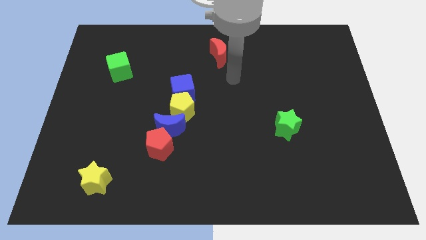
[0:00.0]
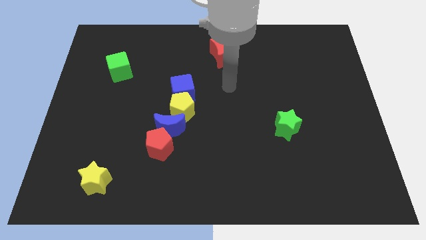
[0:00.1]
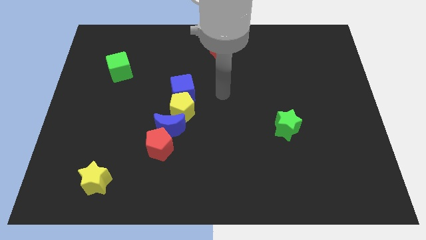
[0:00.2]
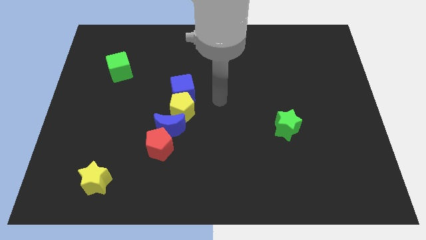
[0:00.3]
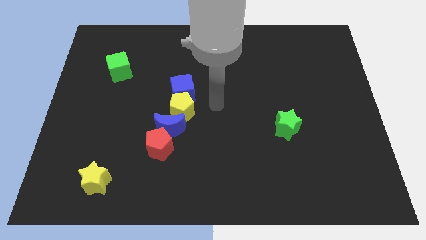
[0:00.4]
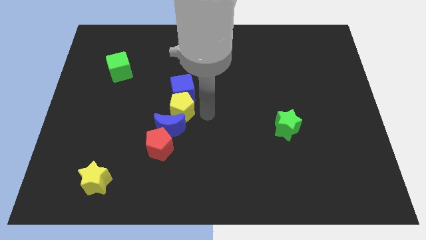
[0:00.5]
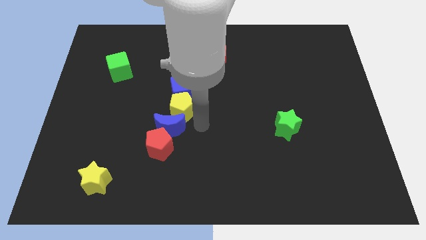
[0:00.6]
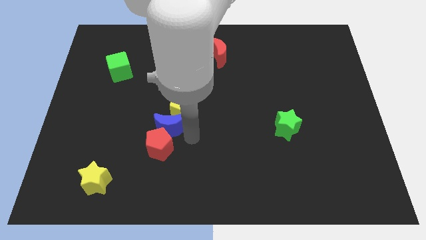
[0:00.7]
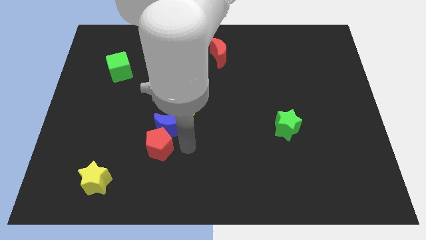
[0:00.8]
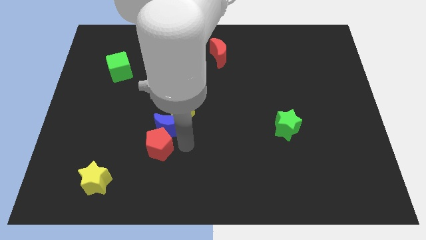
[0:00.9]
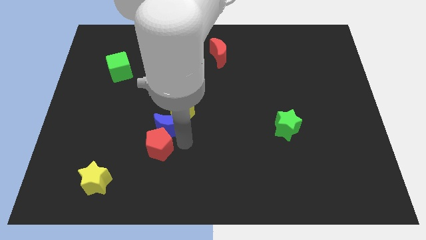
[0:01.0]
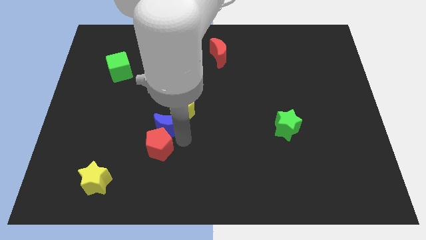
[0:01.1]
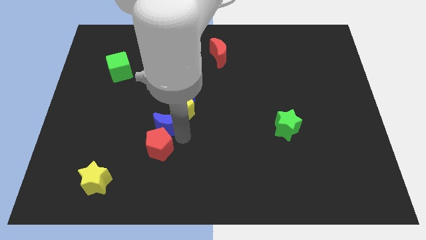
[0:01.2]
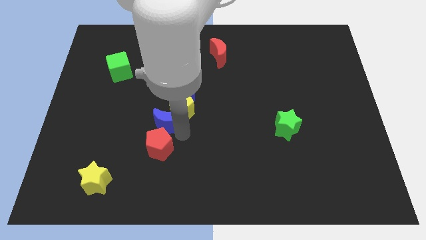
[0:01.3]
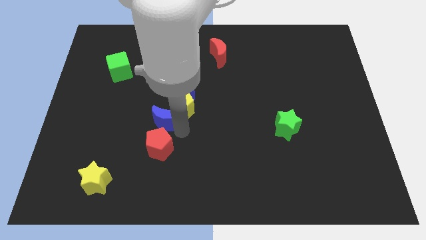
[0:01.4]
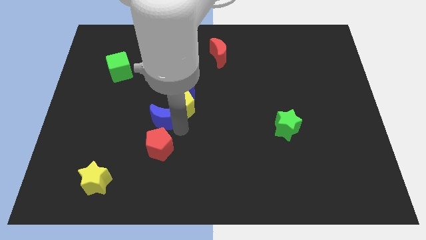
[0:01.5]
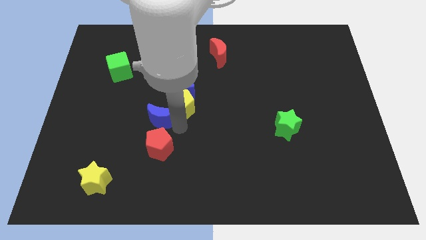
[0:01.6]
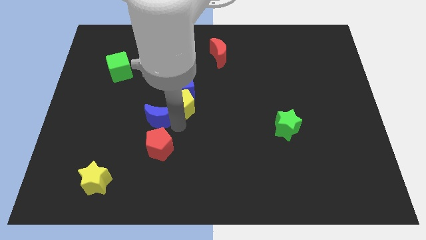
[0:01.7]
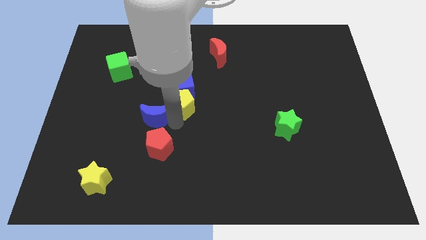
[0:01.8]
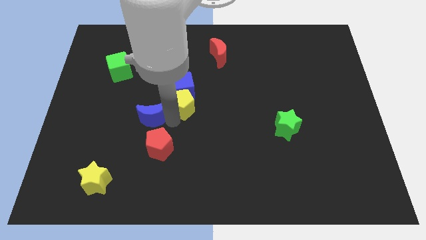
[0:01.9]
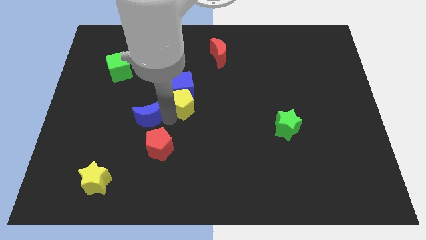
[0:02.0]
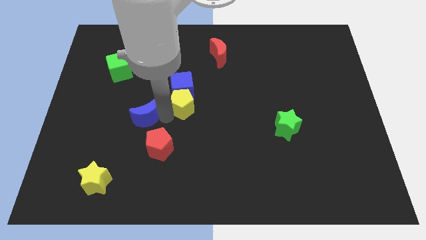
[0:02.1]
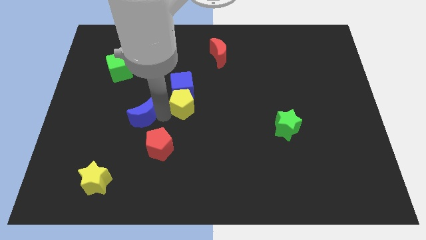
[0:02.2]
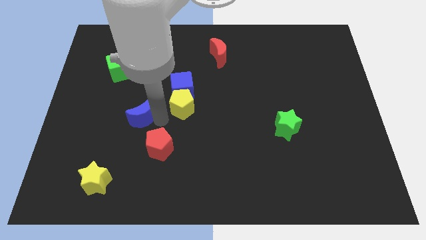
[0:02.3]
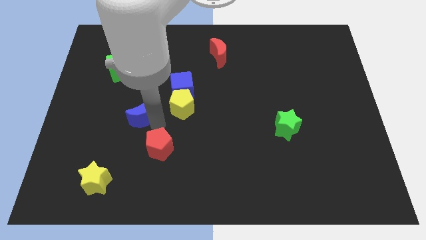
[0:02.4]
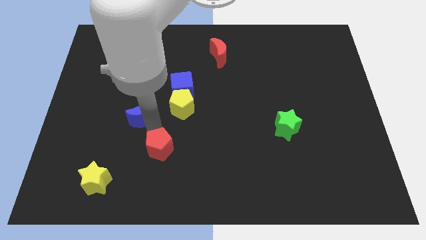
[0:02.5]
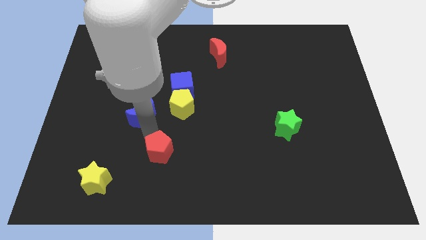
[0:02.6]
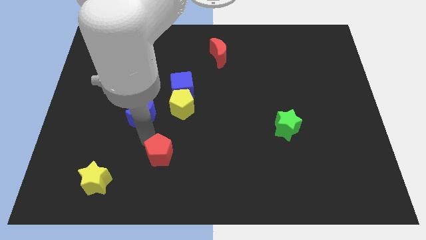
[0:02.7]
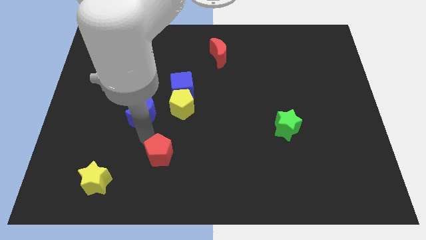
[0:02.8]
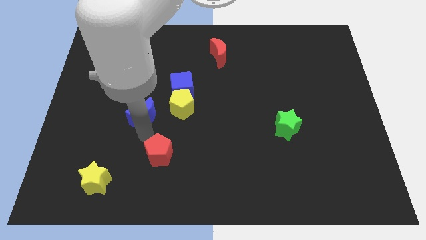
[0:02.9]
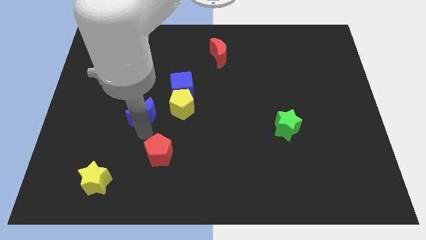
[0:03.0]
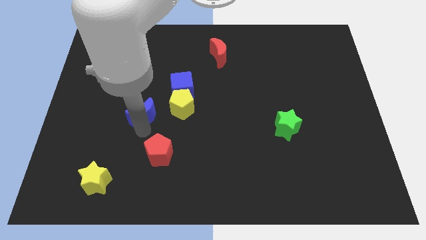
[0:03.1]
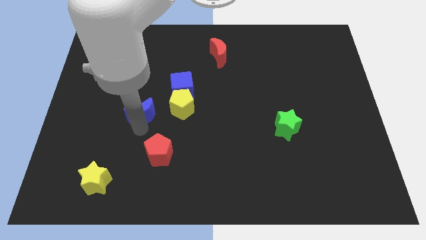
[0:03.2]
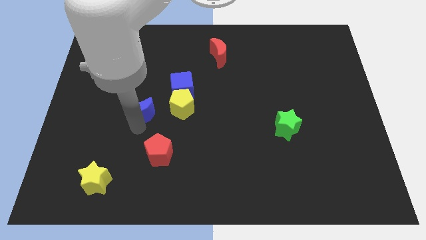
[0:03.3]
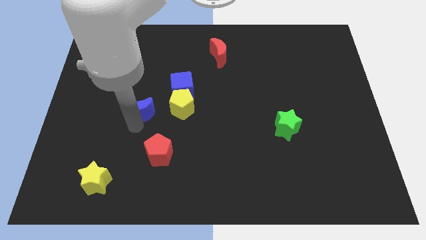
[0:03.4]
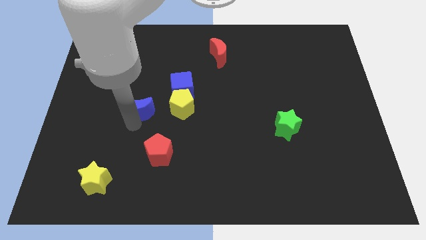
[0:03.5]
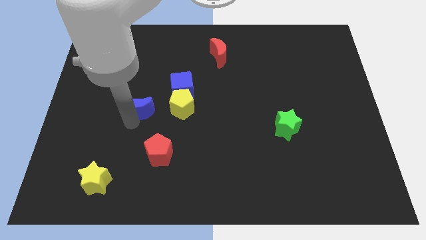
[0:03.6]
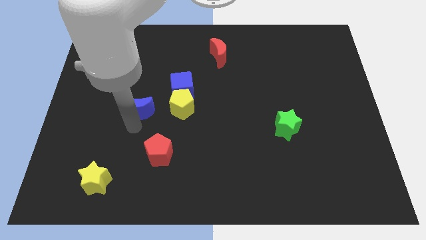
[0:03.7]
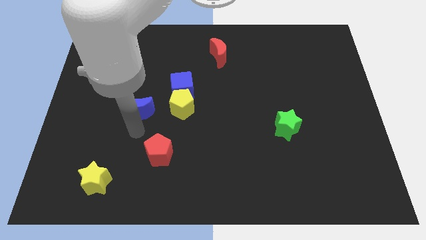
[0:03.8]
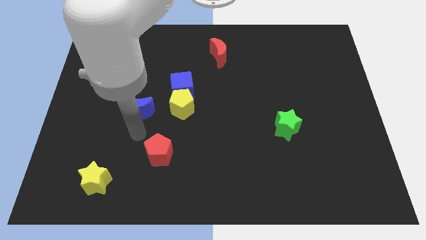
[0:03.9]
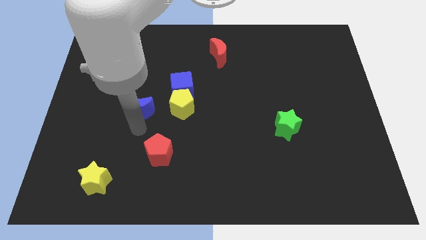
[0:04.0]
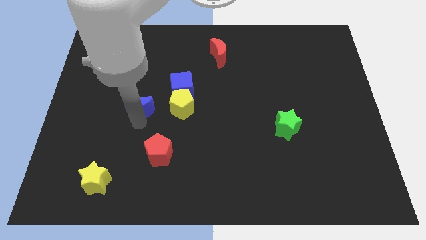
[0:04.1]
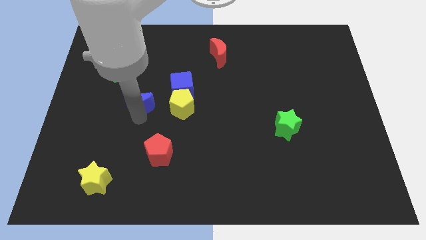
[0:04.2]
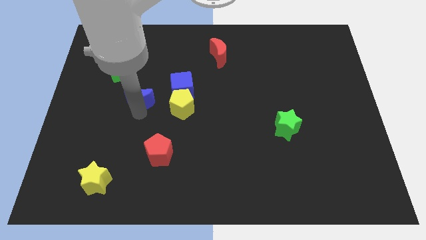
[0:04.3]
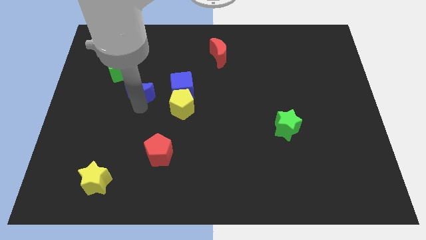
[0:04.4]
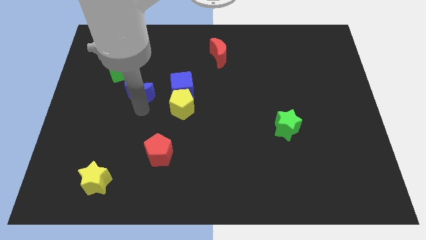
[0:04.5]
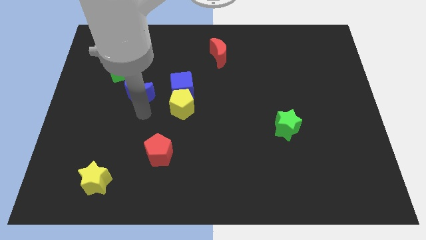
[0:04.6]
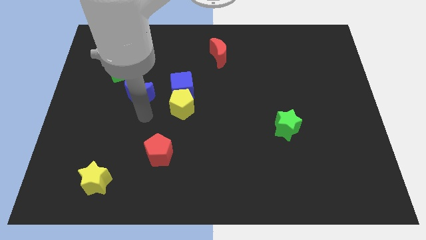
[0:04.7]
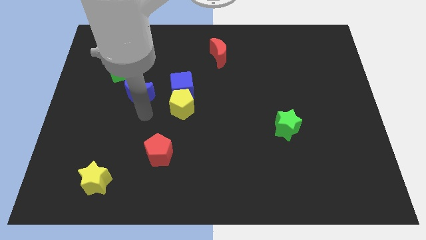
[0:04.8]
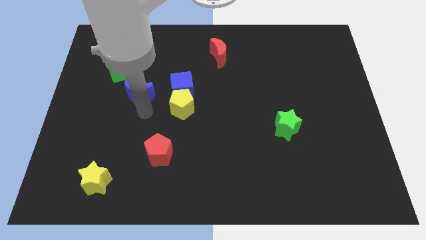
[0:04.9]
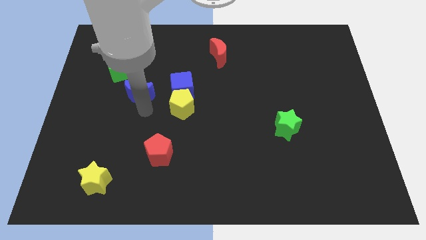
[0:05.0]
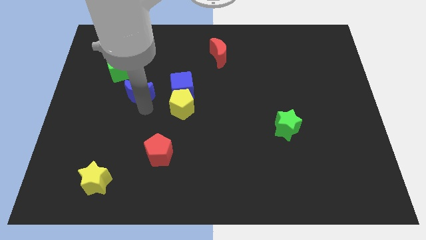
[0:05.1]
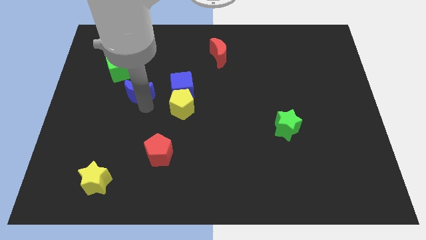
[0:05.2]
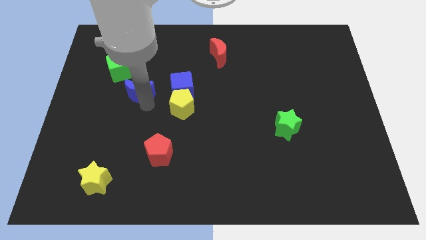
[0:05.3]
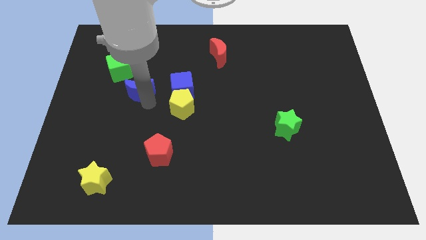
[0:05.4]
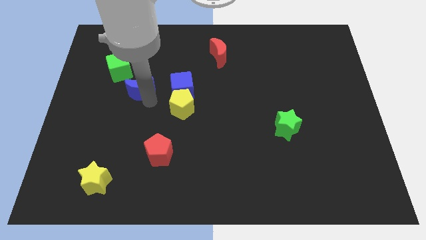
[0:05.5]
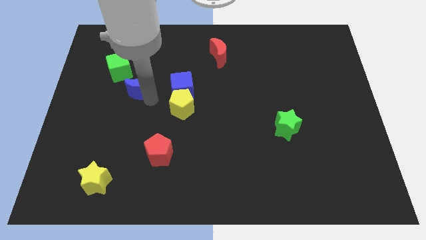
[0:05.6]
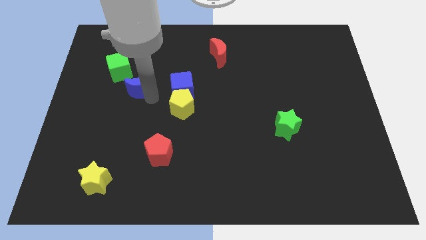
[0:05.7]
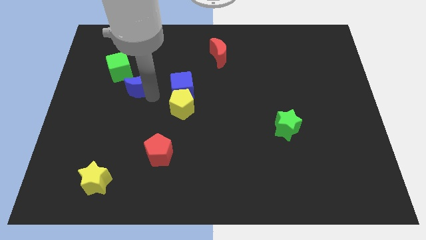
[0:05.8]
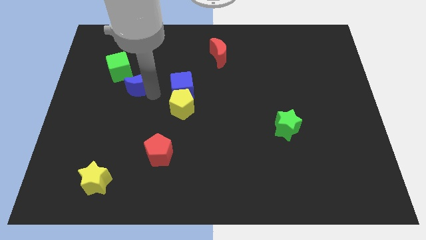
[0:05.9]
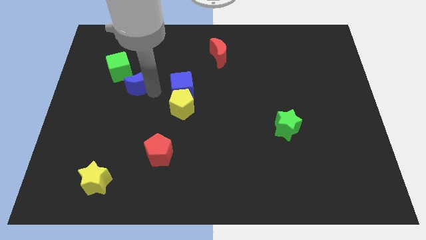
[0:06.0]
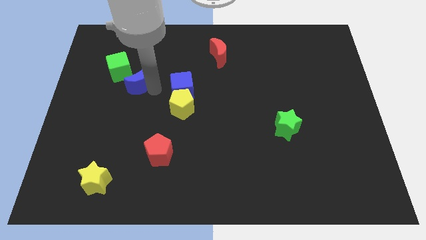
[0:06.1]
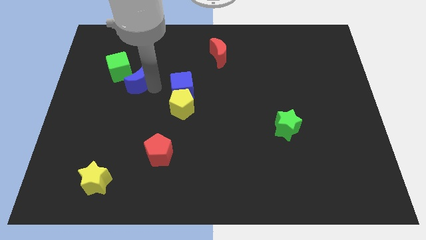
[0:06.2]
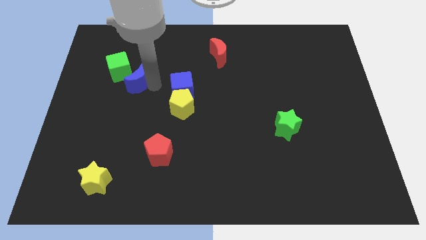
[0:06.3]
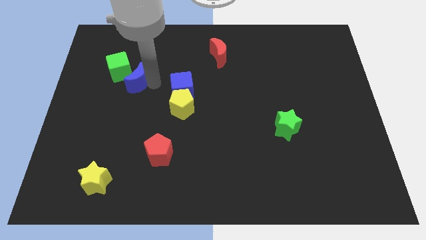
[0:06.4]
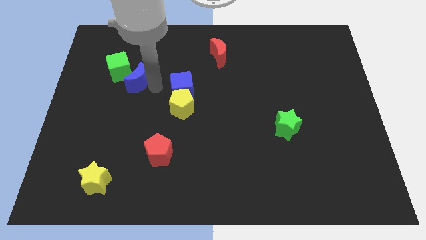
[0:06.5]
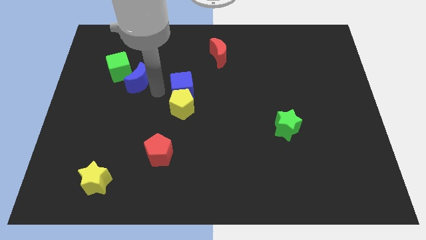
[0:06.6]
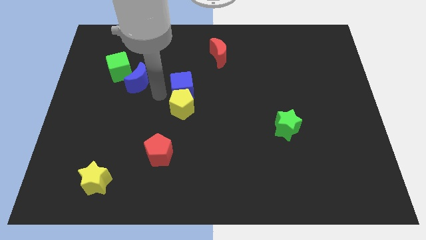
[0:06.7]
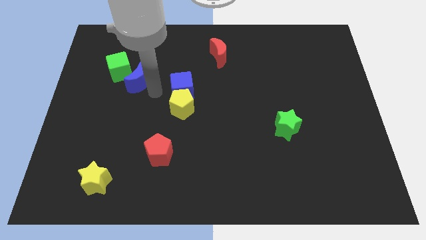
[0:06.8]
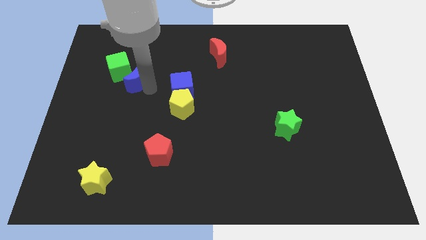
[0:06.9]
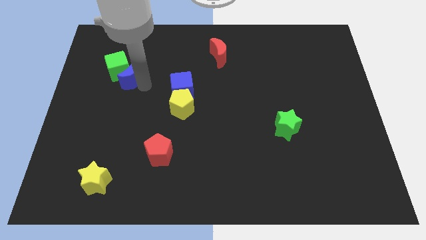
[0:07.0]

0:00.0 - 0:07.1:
put the blue moon towards the green cube

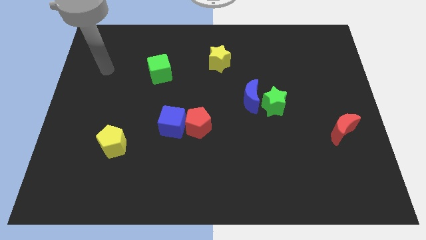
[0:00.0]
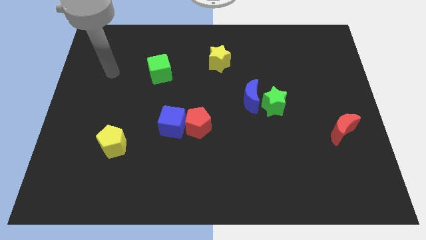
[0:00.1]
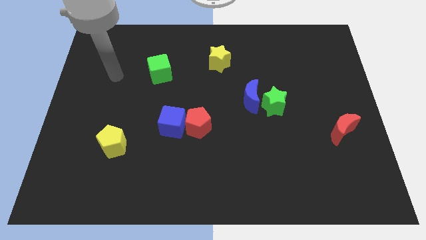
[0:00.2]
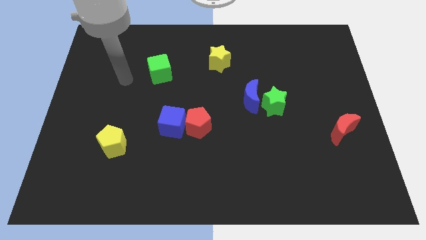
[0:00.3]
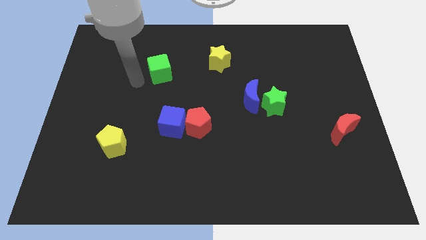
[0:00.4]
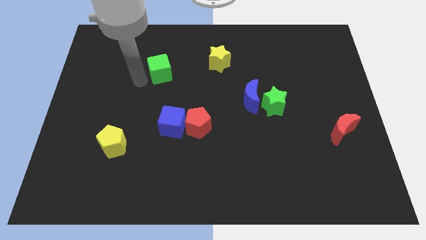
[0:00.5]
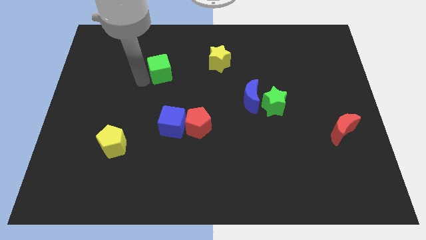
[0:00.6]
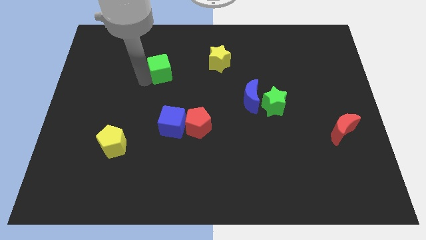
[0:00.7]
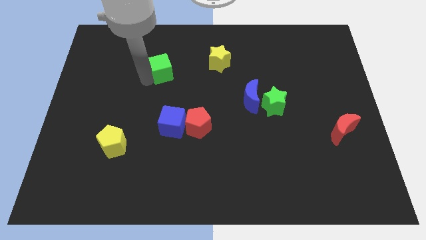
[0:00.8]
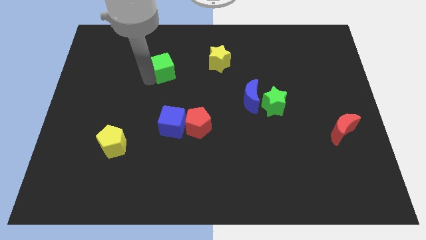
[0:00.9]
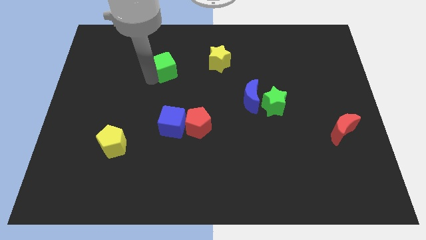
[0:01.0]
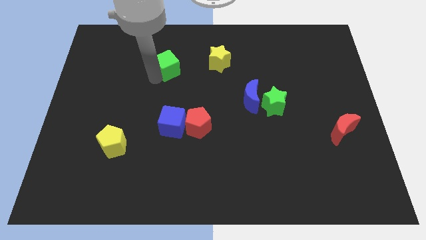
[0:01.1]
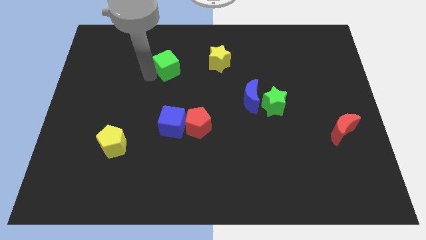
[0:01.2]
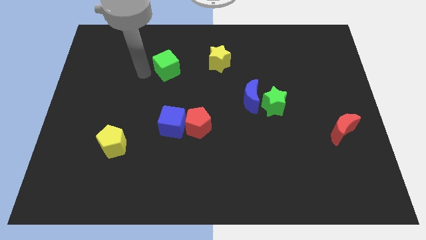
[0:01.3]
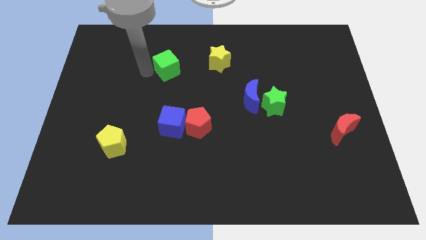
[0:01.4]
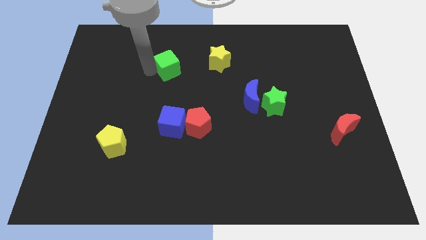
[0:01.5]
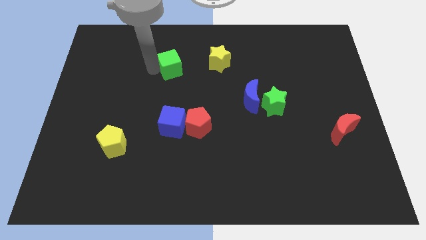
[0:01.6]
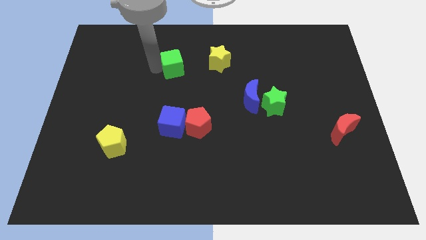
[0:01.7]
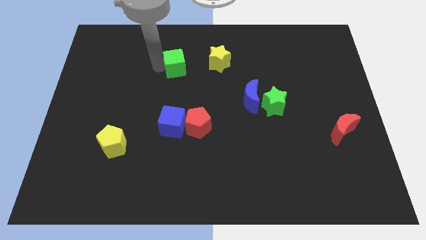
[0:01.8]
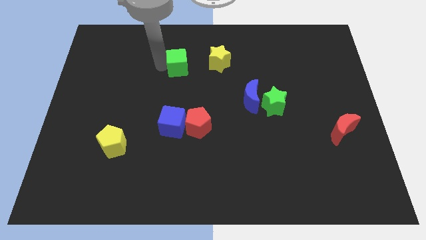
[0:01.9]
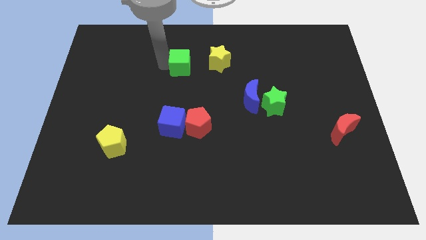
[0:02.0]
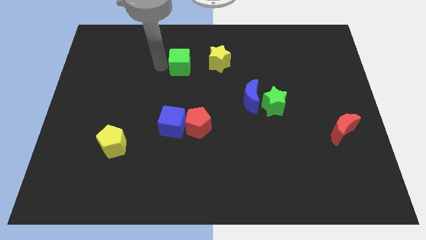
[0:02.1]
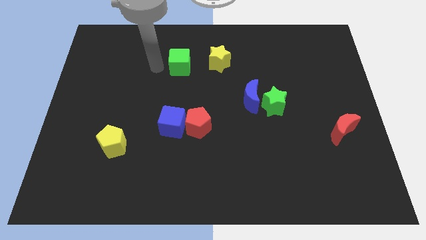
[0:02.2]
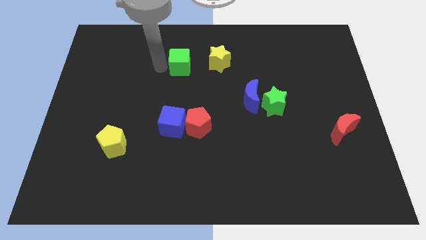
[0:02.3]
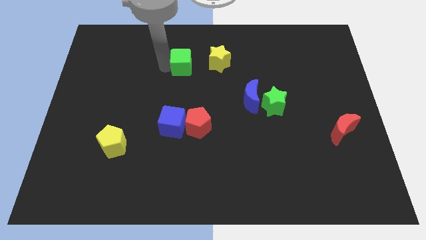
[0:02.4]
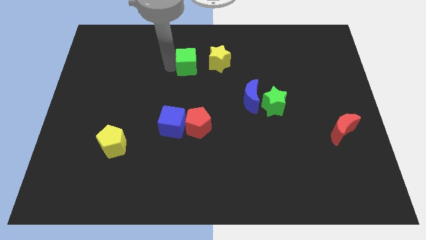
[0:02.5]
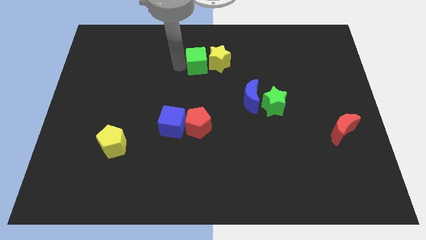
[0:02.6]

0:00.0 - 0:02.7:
put the green cube close to the yellow star
